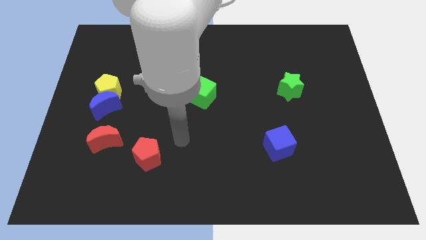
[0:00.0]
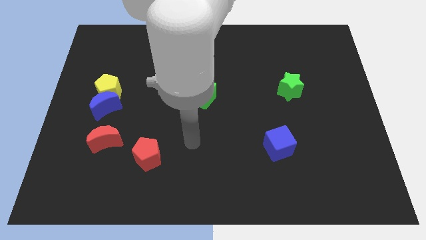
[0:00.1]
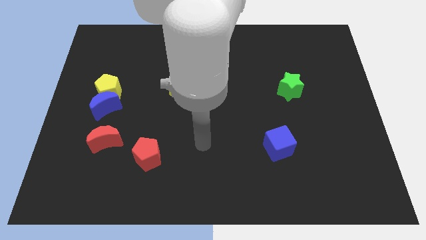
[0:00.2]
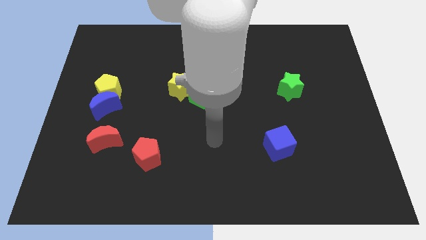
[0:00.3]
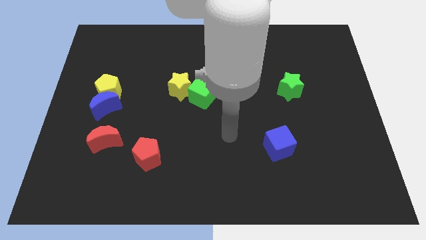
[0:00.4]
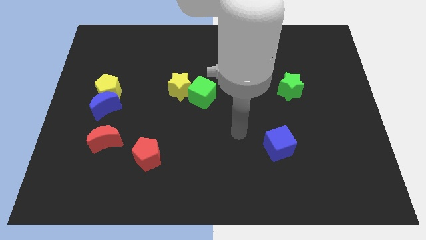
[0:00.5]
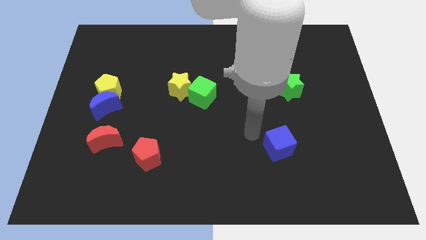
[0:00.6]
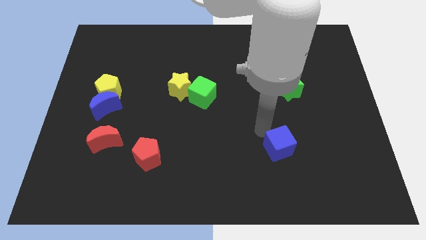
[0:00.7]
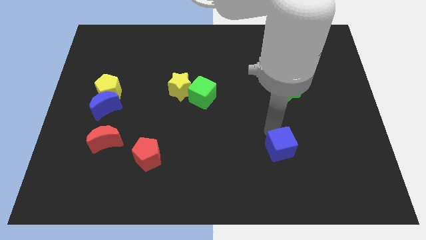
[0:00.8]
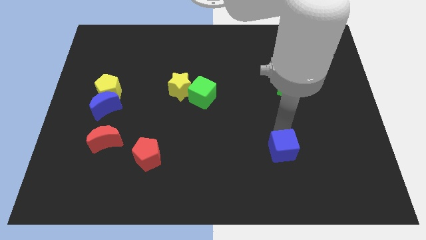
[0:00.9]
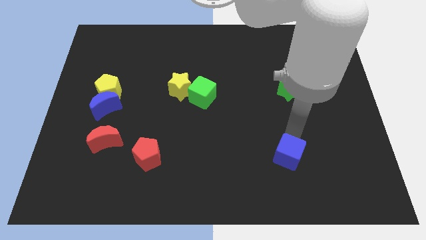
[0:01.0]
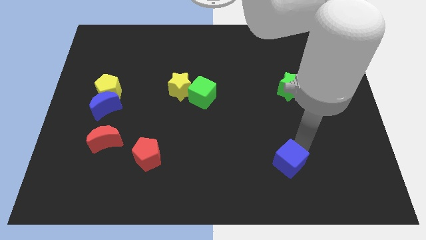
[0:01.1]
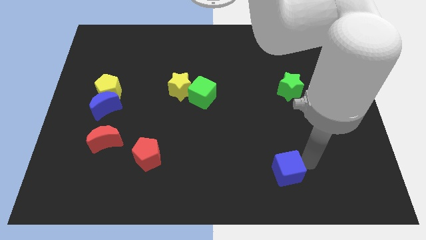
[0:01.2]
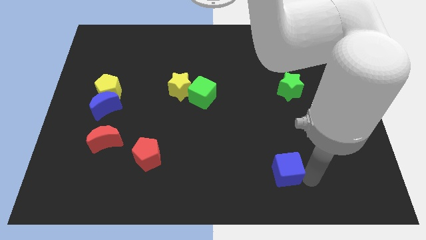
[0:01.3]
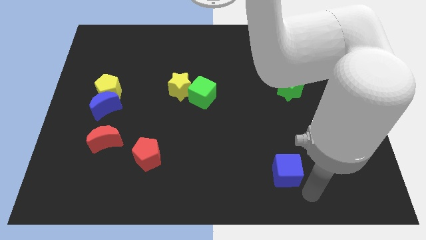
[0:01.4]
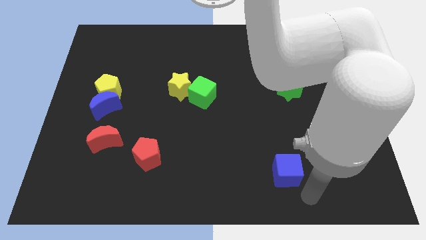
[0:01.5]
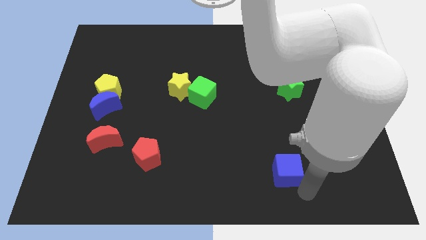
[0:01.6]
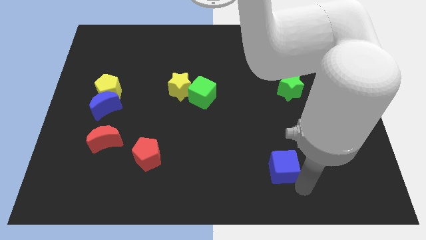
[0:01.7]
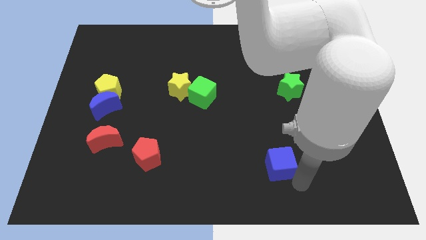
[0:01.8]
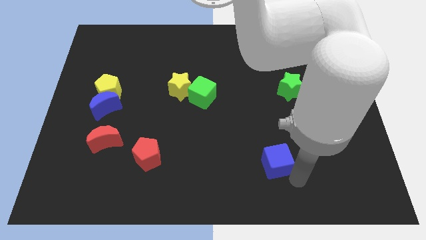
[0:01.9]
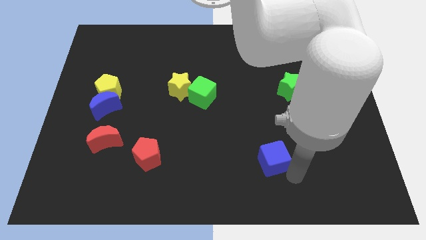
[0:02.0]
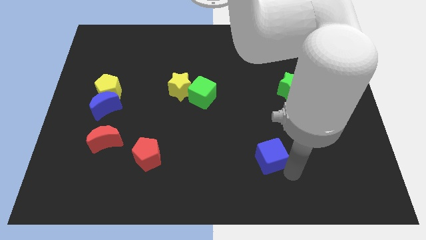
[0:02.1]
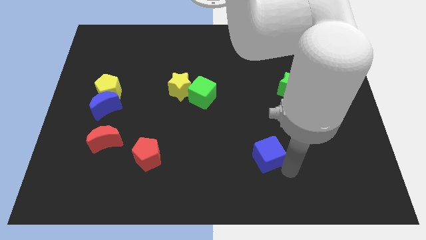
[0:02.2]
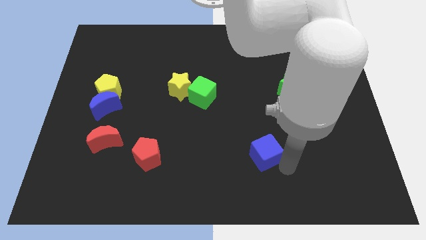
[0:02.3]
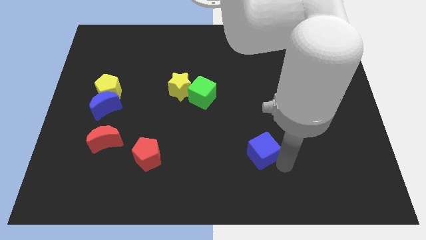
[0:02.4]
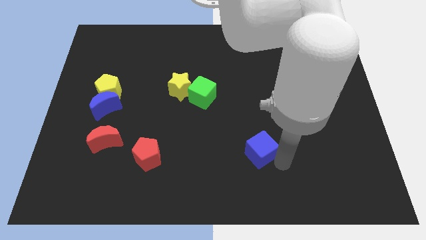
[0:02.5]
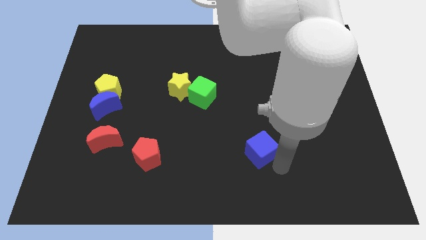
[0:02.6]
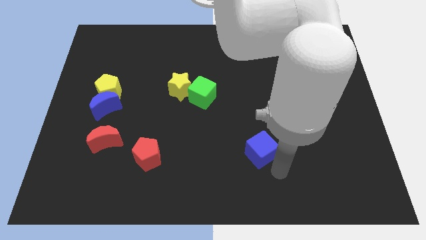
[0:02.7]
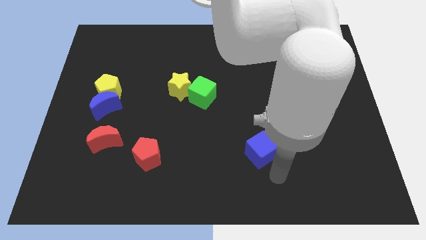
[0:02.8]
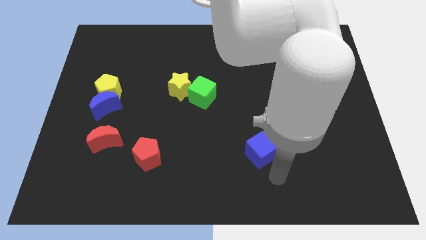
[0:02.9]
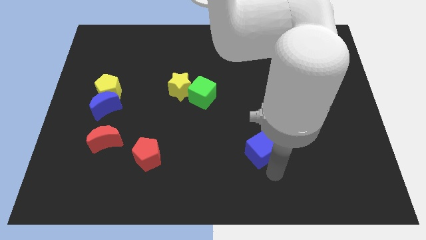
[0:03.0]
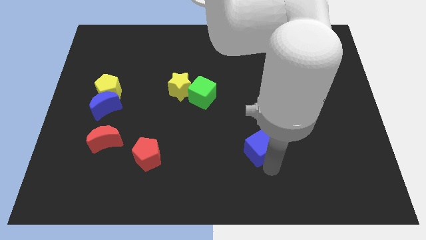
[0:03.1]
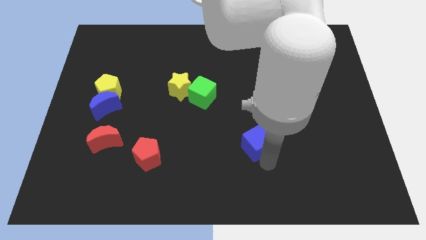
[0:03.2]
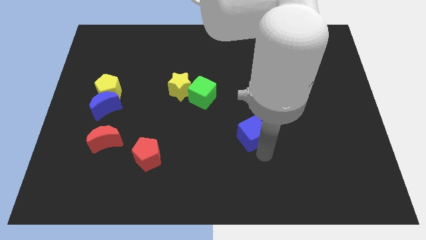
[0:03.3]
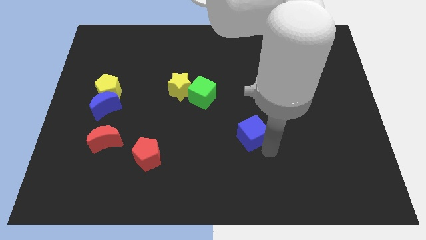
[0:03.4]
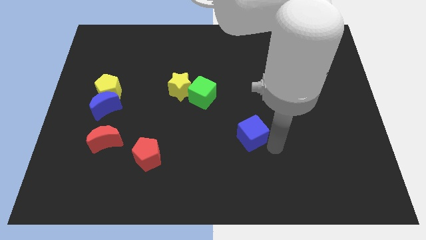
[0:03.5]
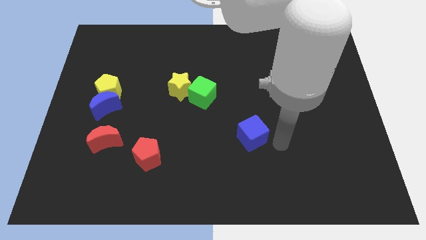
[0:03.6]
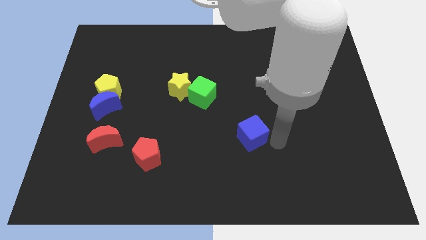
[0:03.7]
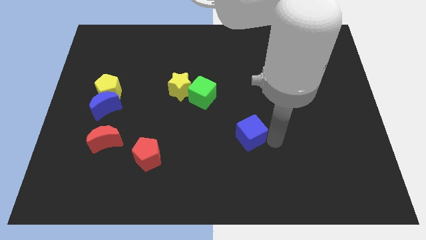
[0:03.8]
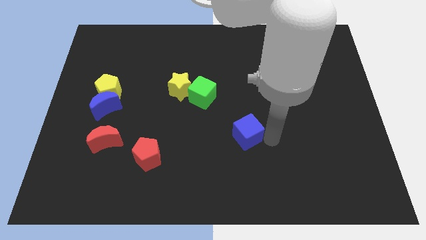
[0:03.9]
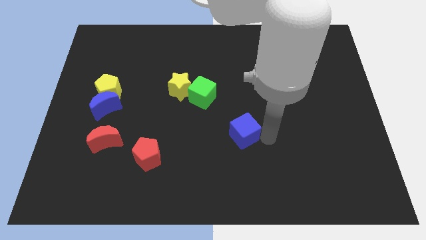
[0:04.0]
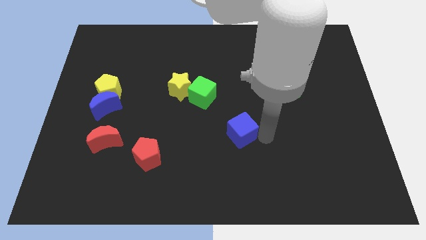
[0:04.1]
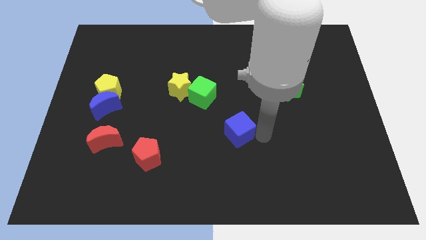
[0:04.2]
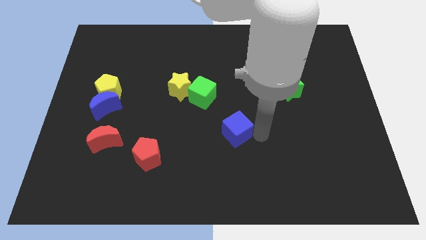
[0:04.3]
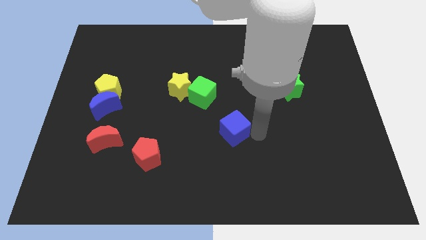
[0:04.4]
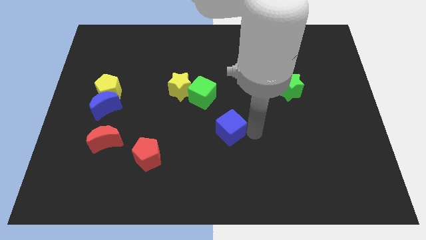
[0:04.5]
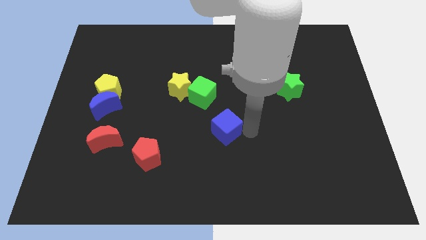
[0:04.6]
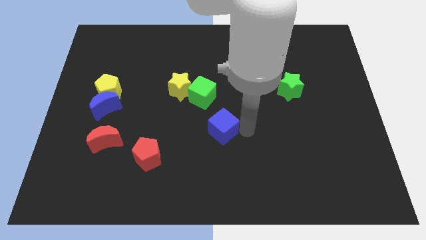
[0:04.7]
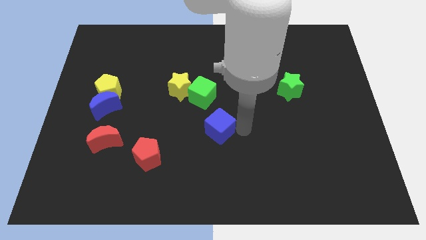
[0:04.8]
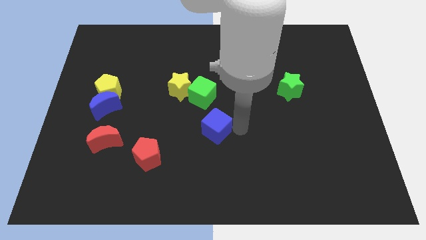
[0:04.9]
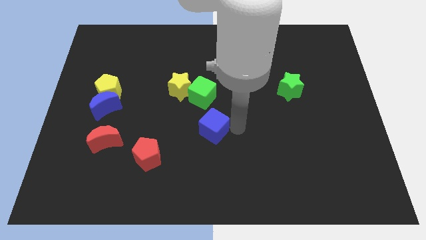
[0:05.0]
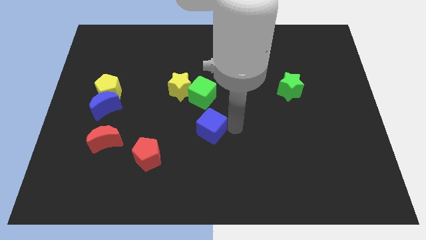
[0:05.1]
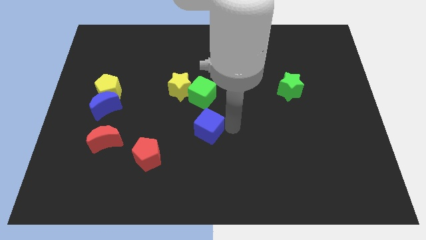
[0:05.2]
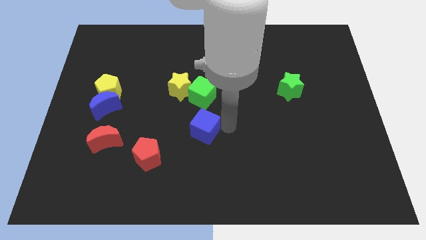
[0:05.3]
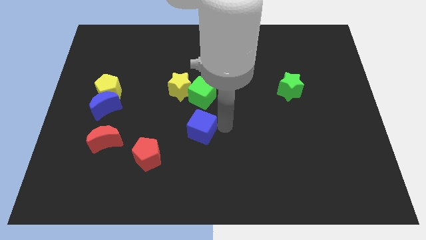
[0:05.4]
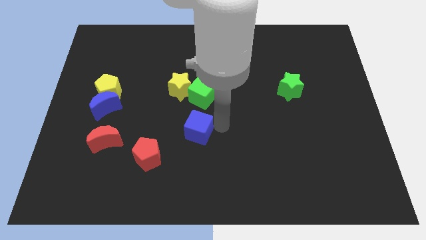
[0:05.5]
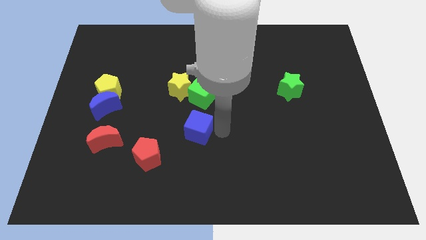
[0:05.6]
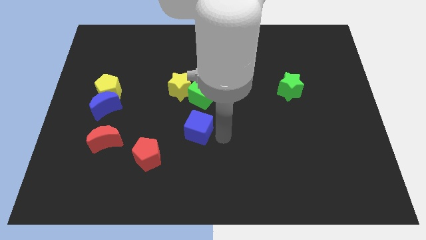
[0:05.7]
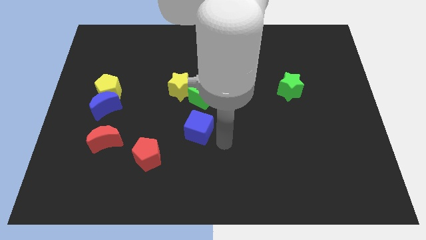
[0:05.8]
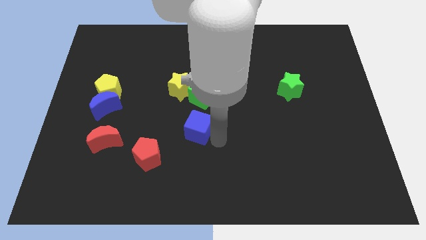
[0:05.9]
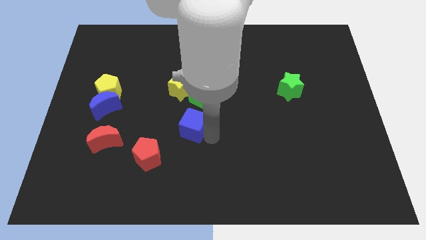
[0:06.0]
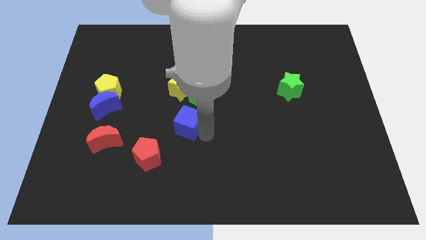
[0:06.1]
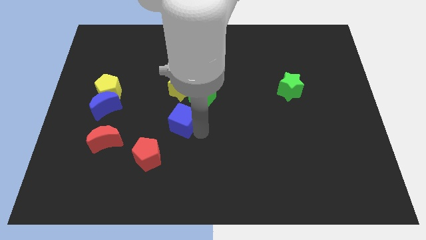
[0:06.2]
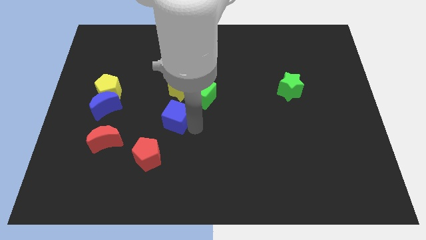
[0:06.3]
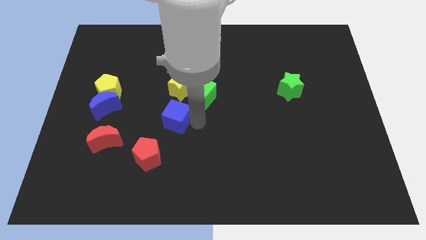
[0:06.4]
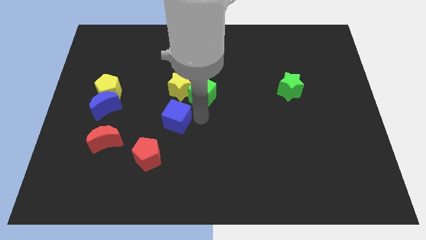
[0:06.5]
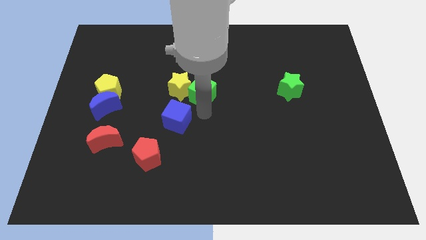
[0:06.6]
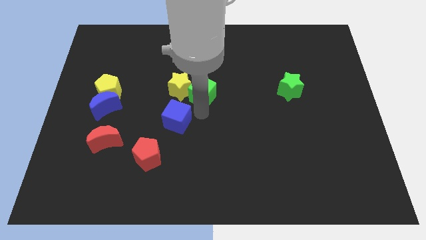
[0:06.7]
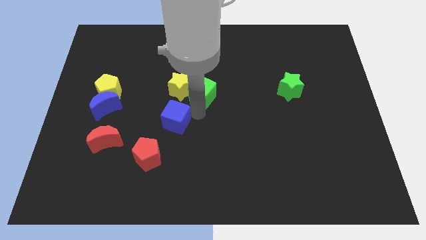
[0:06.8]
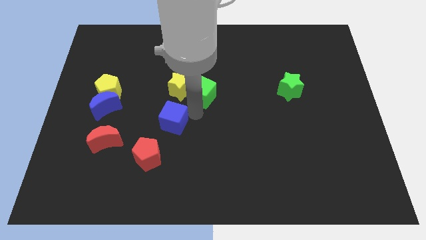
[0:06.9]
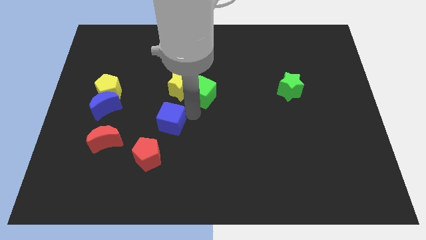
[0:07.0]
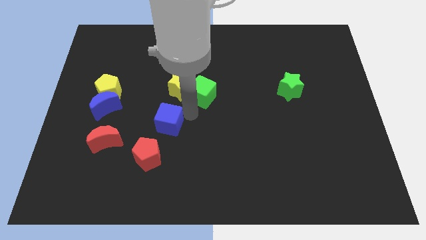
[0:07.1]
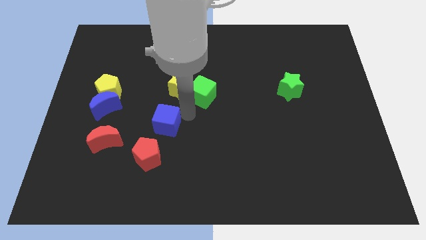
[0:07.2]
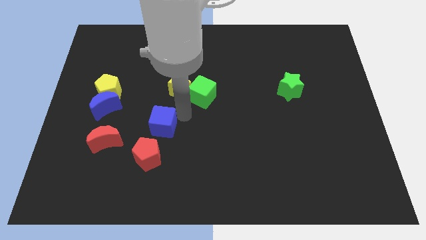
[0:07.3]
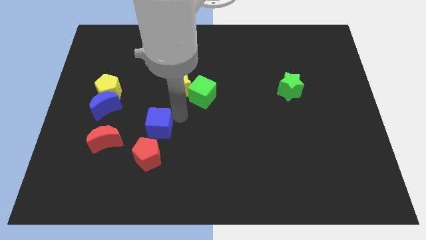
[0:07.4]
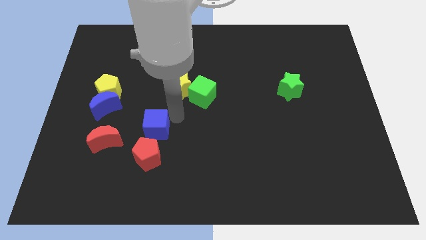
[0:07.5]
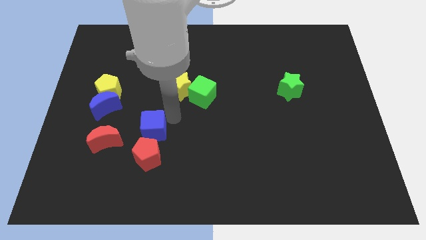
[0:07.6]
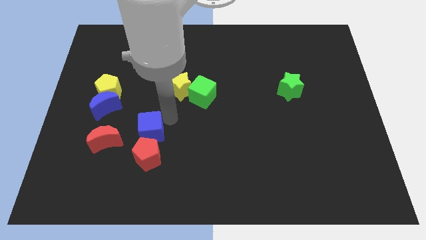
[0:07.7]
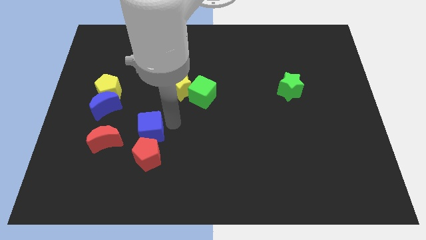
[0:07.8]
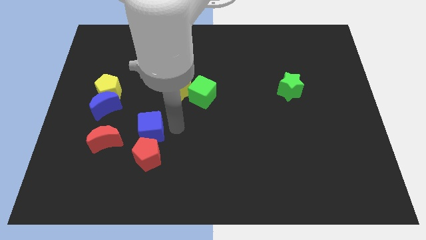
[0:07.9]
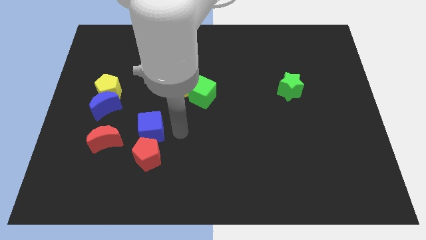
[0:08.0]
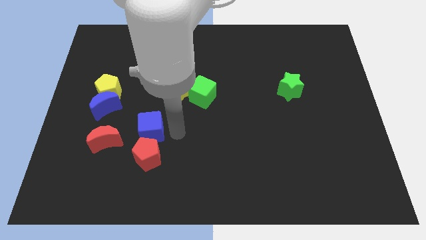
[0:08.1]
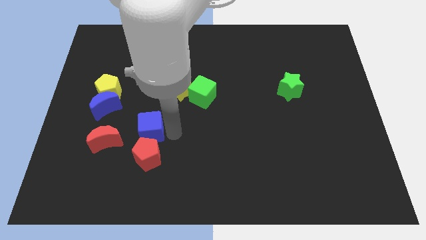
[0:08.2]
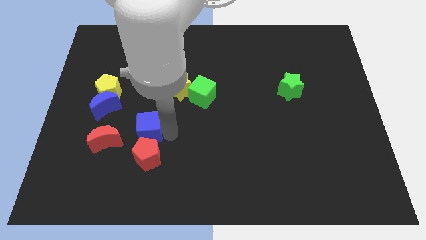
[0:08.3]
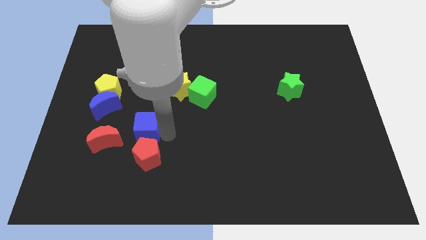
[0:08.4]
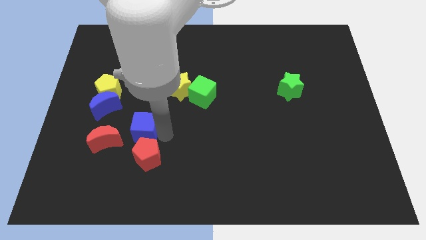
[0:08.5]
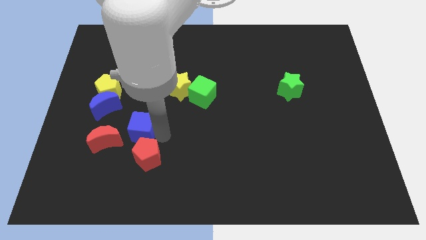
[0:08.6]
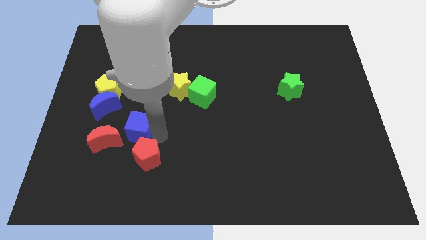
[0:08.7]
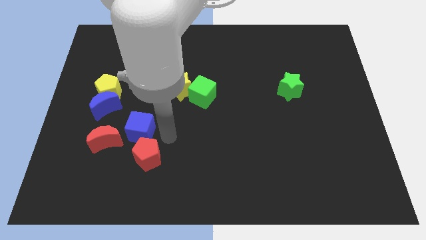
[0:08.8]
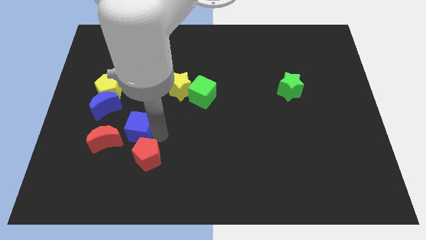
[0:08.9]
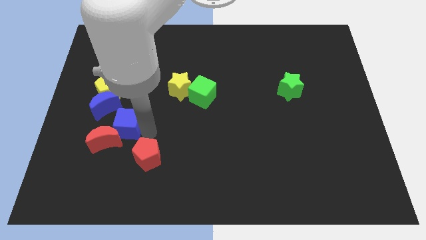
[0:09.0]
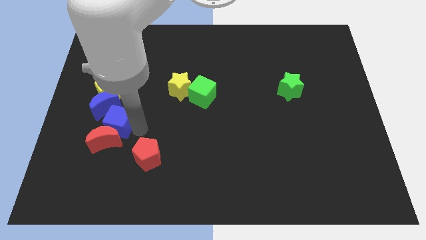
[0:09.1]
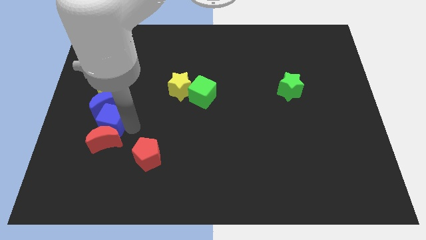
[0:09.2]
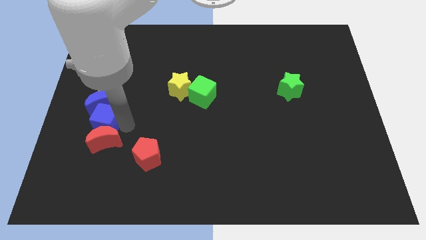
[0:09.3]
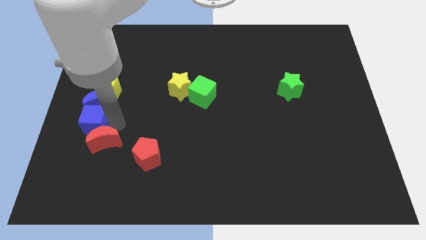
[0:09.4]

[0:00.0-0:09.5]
slide the blue cube to the center left
